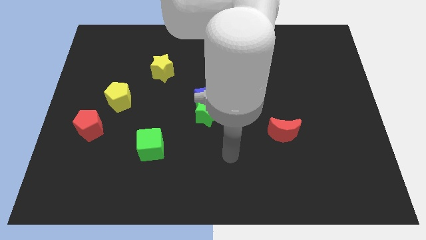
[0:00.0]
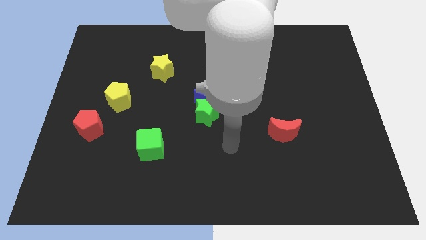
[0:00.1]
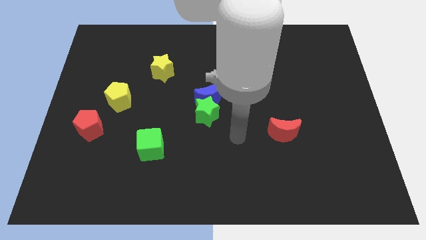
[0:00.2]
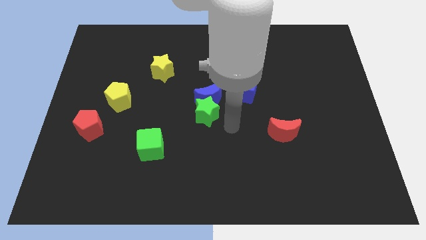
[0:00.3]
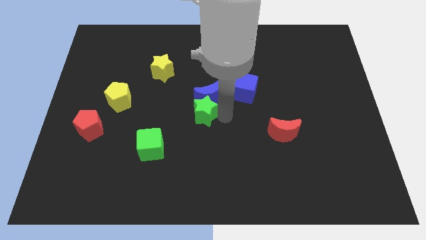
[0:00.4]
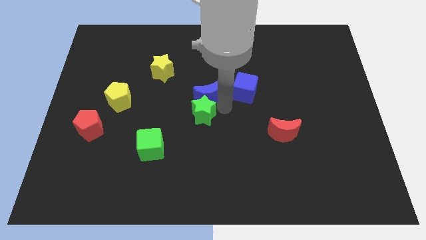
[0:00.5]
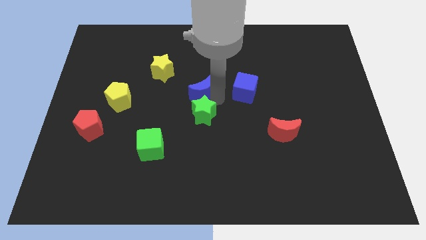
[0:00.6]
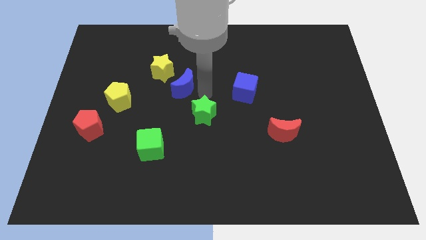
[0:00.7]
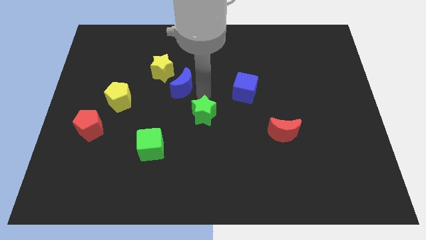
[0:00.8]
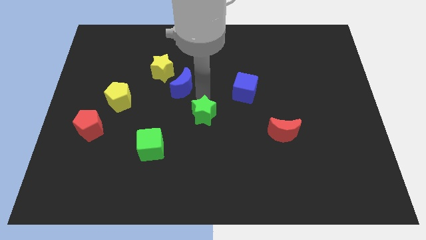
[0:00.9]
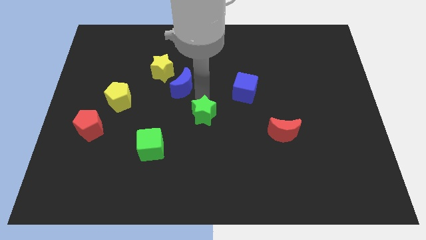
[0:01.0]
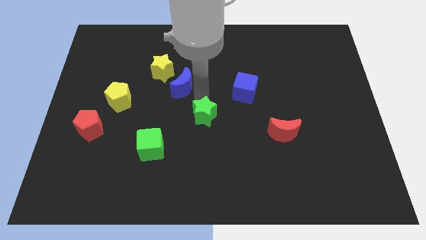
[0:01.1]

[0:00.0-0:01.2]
move the green star away from the blue moon

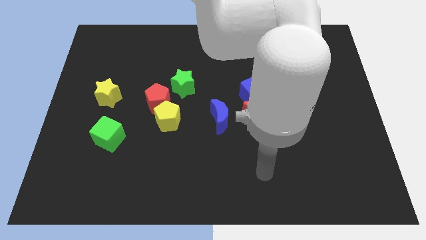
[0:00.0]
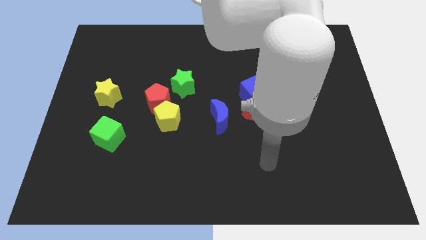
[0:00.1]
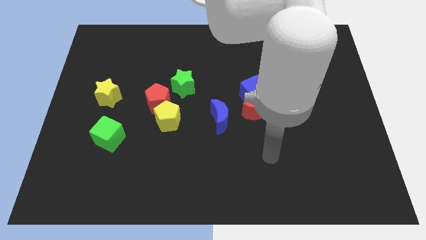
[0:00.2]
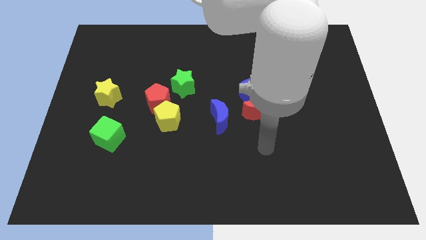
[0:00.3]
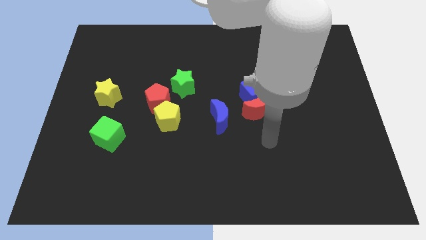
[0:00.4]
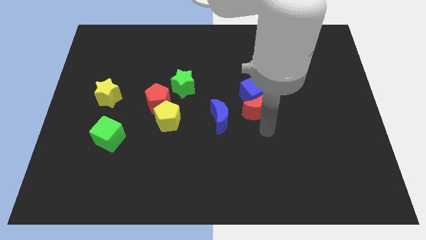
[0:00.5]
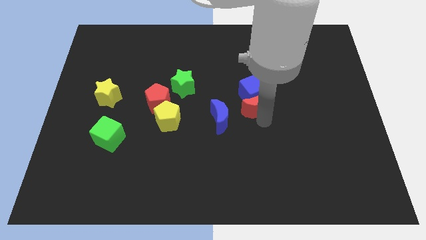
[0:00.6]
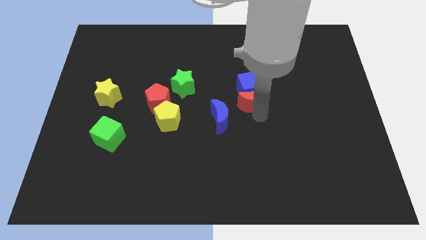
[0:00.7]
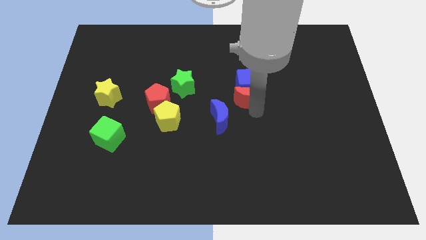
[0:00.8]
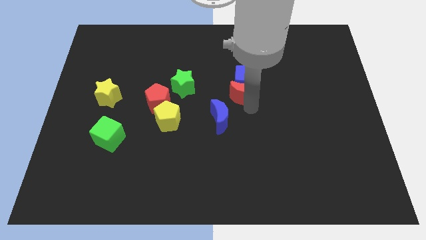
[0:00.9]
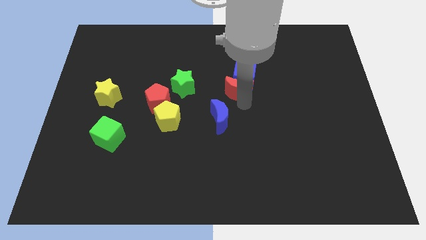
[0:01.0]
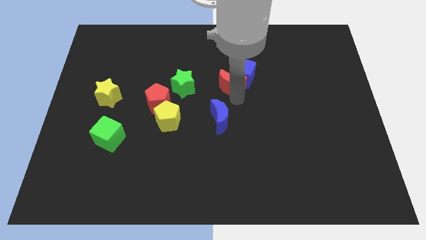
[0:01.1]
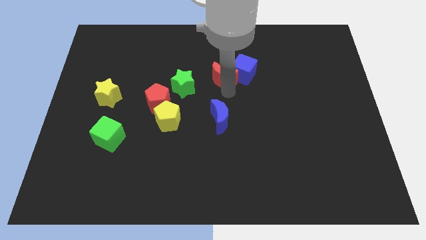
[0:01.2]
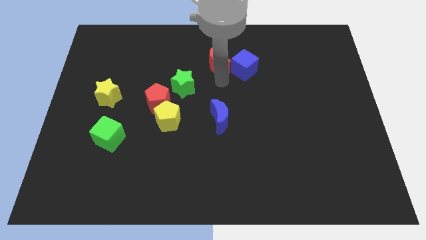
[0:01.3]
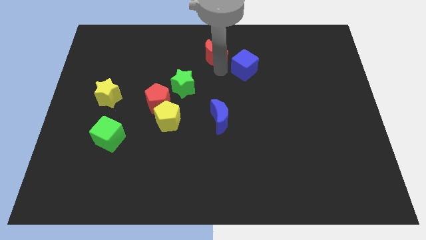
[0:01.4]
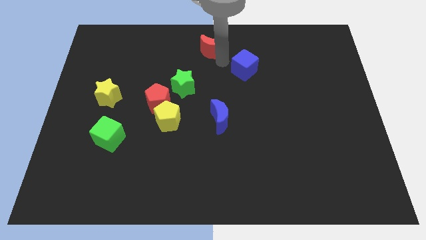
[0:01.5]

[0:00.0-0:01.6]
move the blue cube away from the red moon

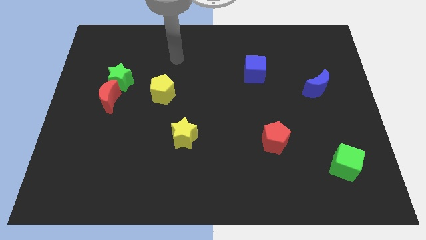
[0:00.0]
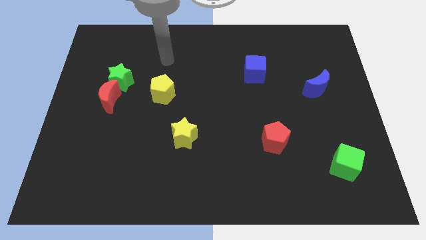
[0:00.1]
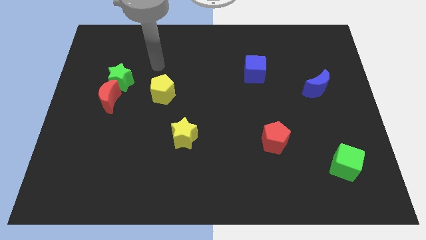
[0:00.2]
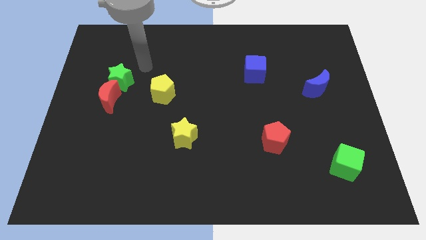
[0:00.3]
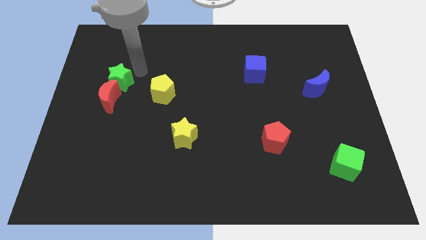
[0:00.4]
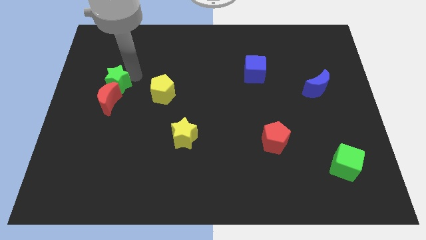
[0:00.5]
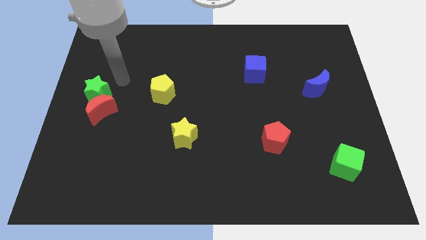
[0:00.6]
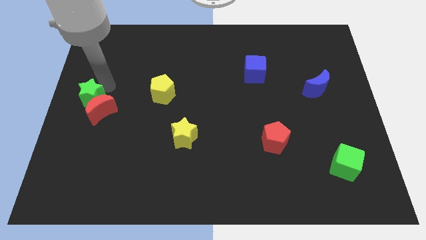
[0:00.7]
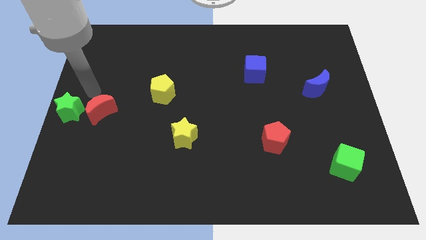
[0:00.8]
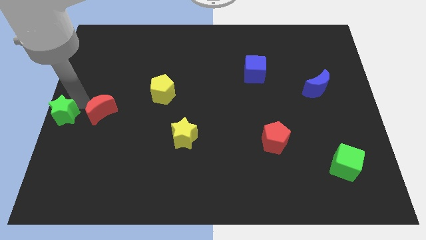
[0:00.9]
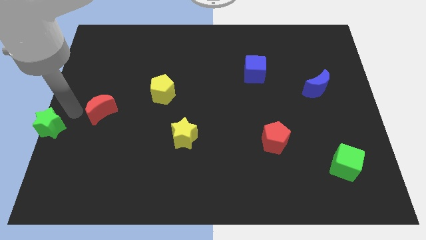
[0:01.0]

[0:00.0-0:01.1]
pull the red moon apart from the green star

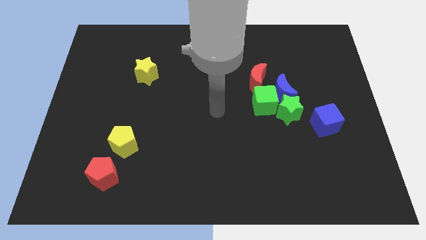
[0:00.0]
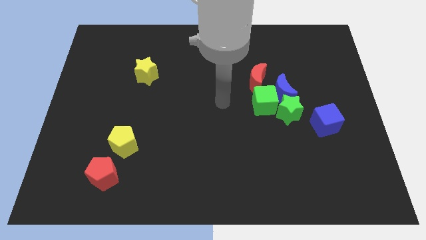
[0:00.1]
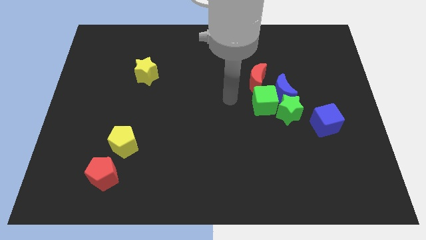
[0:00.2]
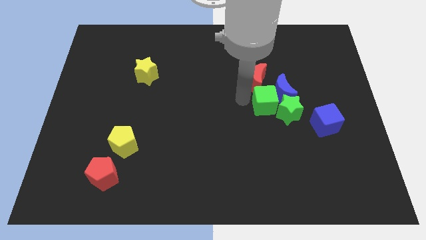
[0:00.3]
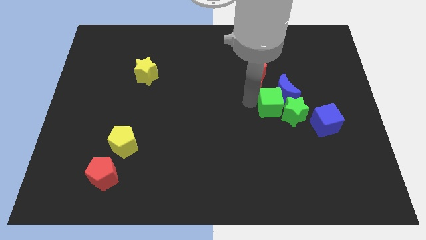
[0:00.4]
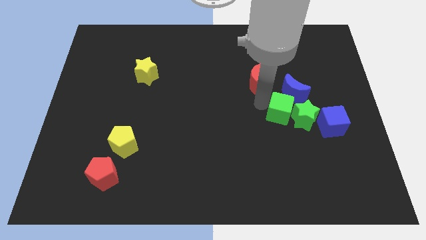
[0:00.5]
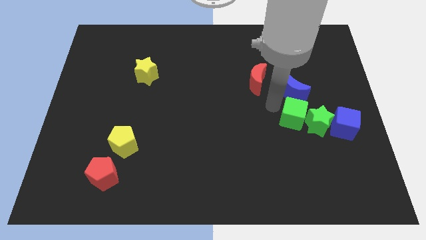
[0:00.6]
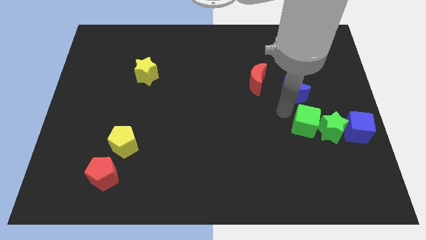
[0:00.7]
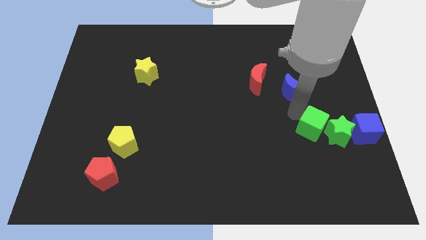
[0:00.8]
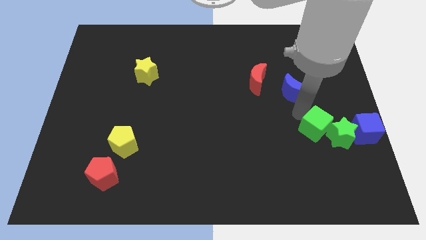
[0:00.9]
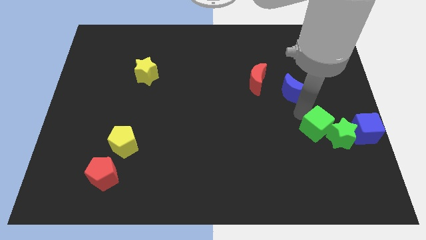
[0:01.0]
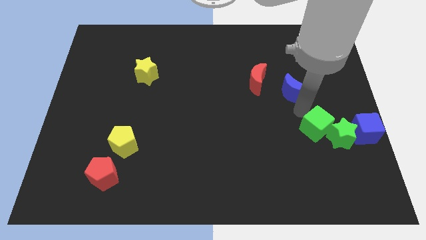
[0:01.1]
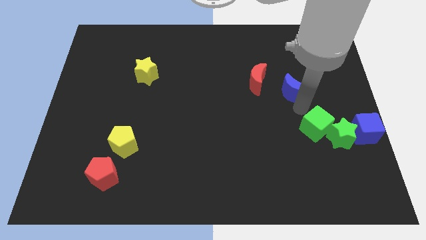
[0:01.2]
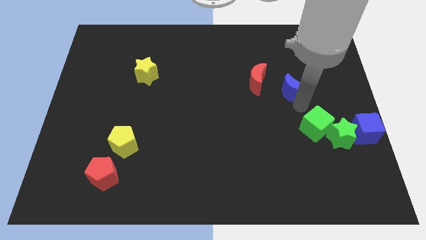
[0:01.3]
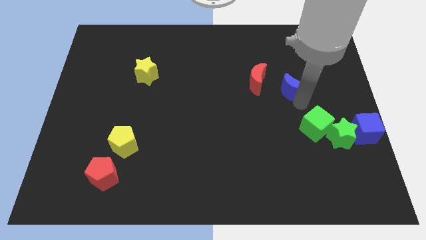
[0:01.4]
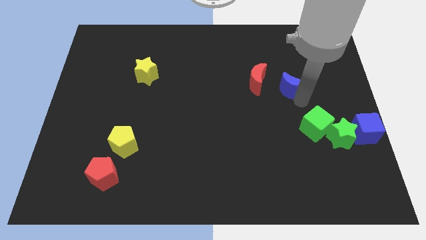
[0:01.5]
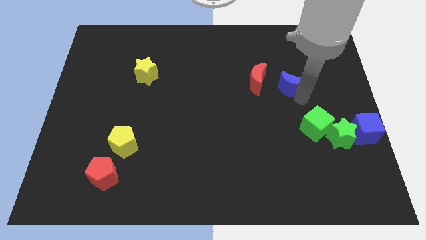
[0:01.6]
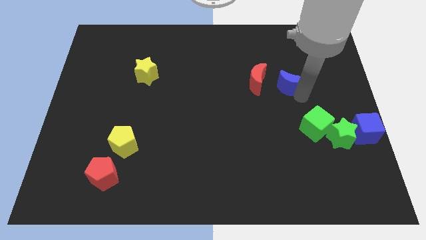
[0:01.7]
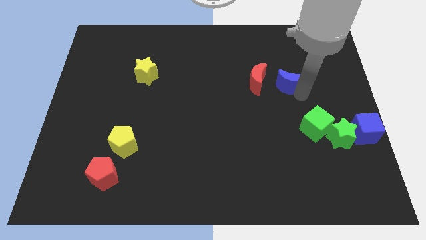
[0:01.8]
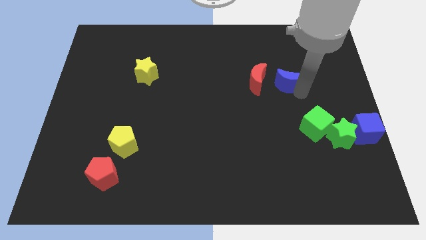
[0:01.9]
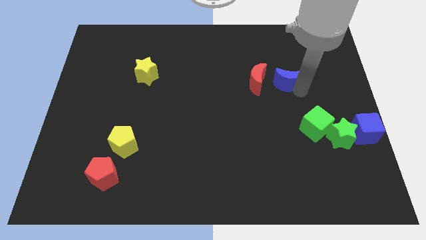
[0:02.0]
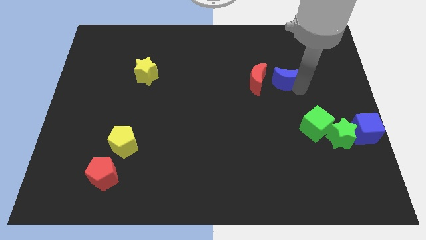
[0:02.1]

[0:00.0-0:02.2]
move the blue moon away from the clump

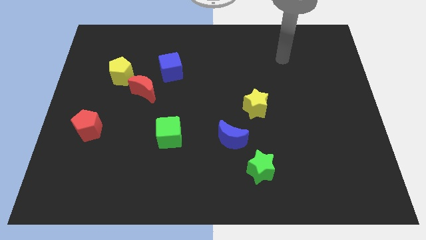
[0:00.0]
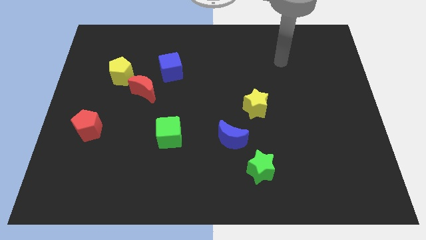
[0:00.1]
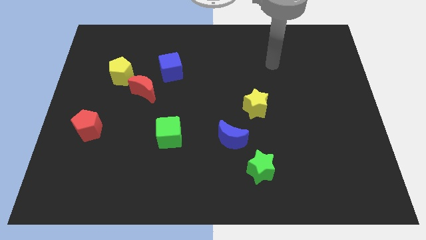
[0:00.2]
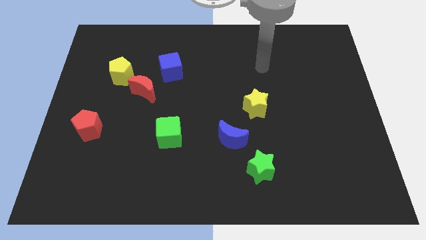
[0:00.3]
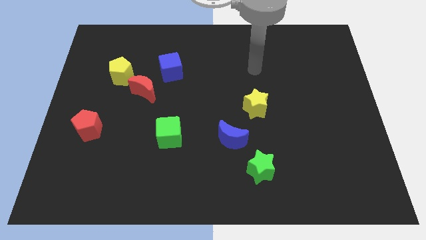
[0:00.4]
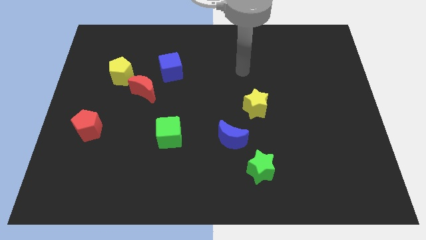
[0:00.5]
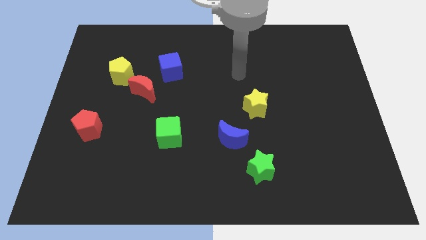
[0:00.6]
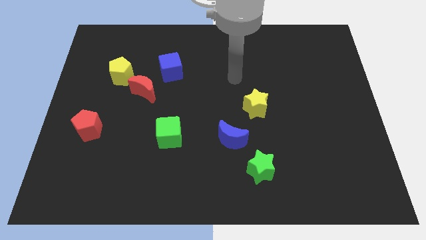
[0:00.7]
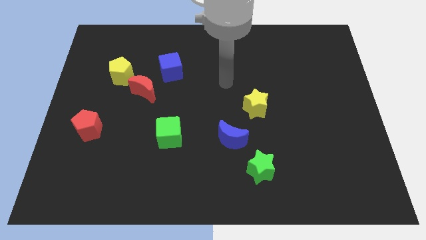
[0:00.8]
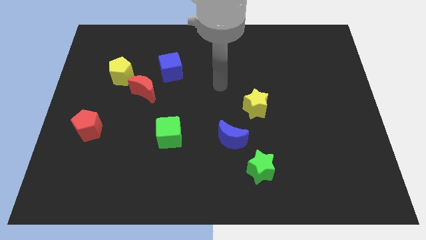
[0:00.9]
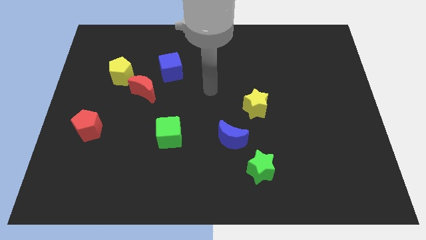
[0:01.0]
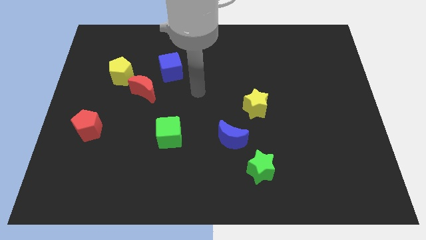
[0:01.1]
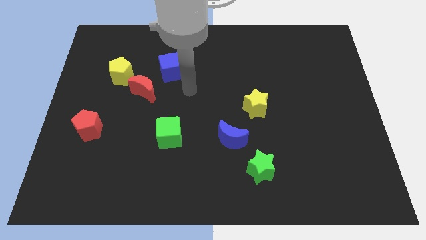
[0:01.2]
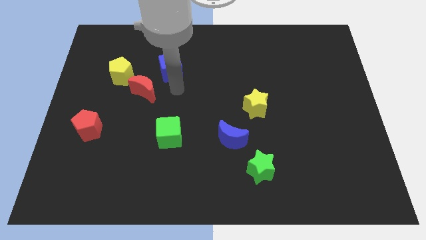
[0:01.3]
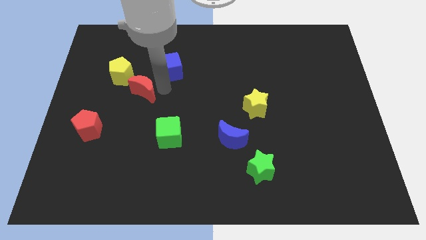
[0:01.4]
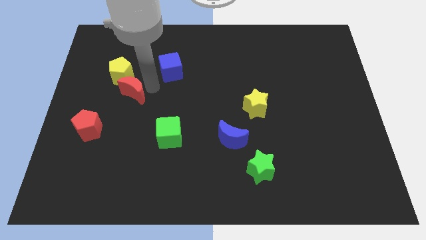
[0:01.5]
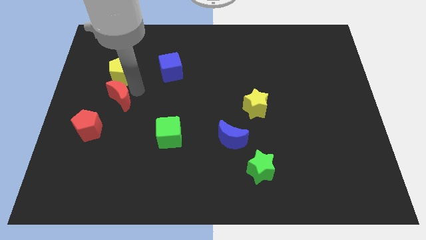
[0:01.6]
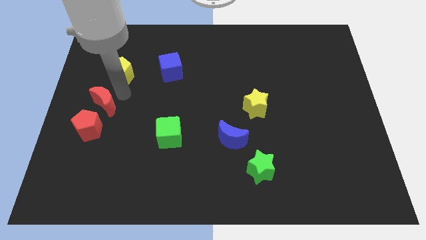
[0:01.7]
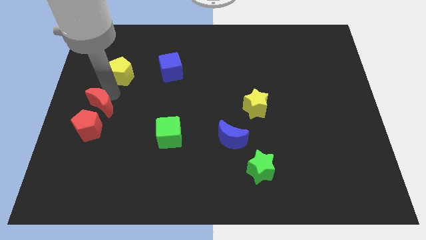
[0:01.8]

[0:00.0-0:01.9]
separate the yellow pentagon from the red moon

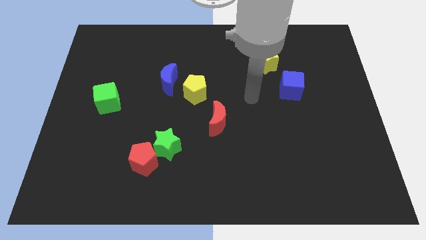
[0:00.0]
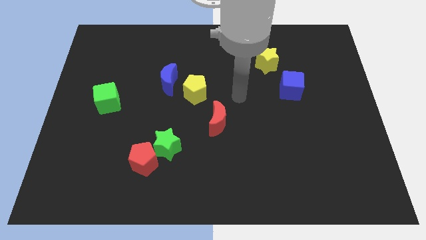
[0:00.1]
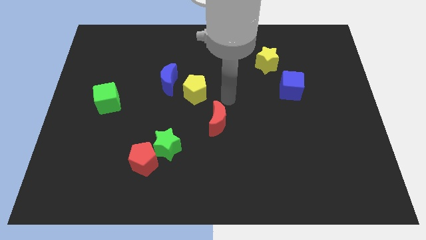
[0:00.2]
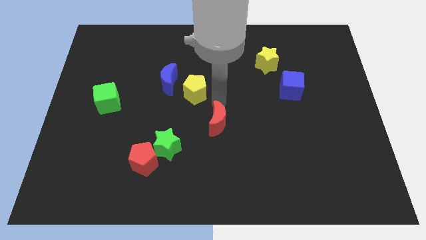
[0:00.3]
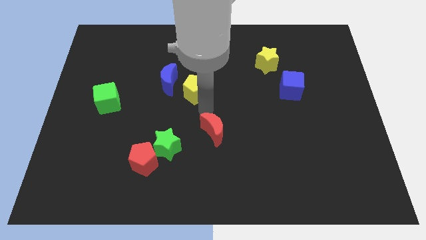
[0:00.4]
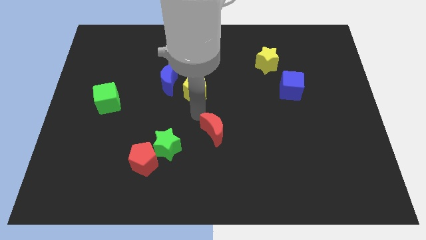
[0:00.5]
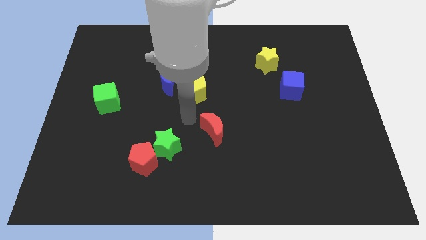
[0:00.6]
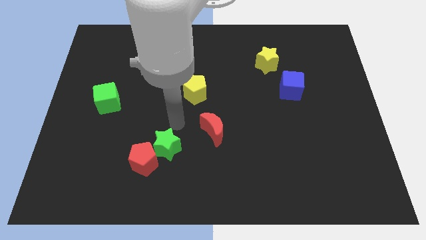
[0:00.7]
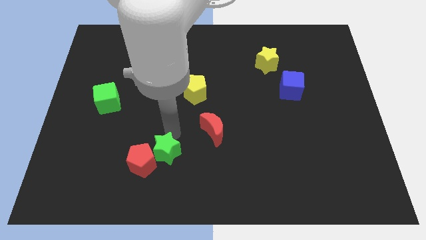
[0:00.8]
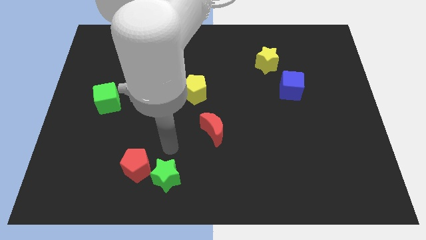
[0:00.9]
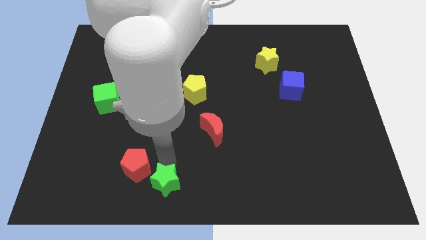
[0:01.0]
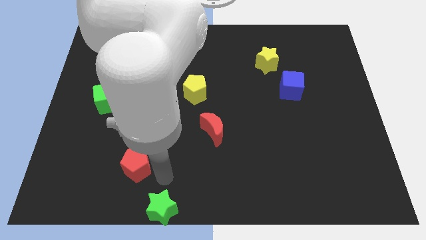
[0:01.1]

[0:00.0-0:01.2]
pull the red pentagon apart from the green star

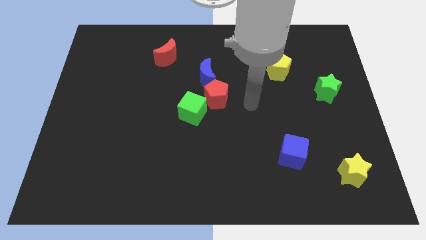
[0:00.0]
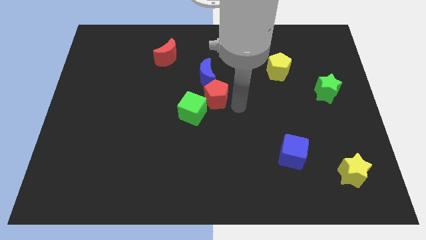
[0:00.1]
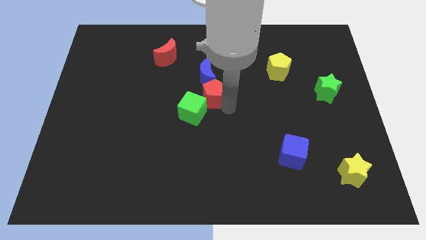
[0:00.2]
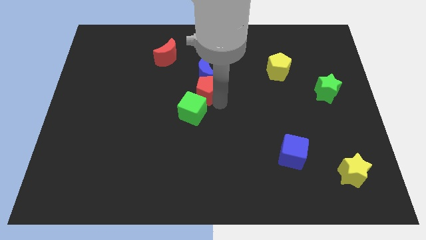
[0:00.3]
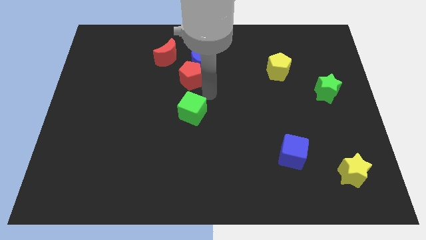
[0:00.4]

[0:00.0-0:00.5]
separate the green cube from the red pentagon
